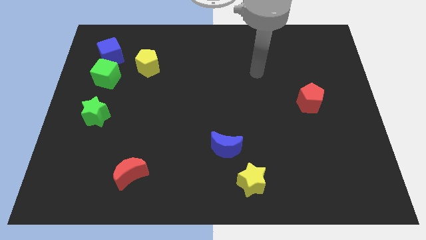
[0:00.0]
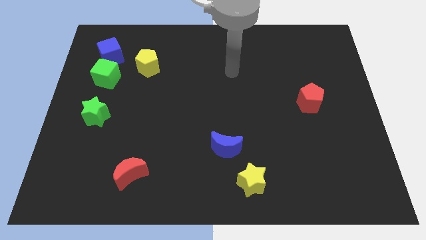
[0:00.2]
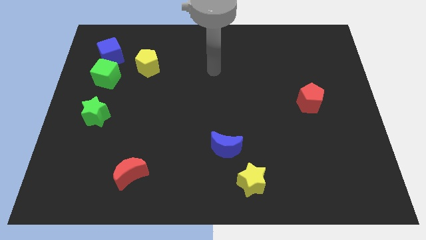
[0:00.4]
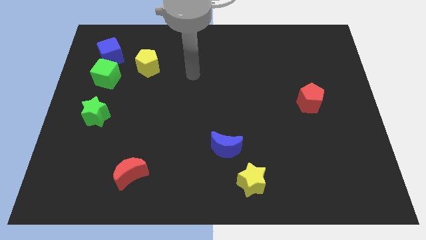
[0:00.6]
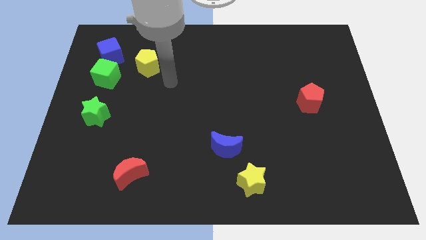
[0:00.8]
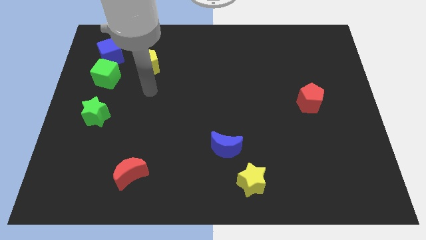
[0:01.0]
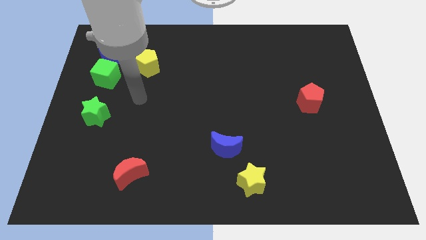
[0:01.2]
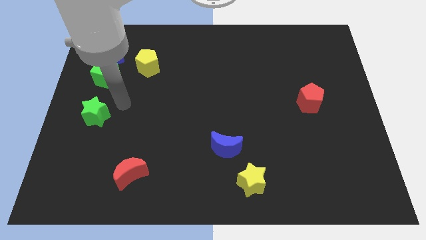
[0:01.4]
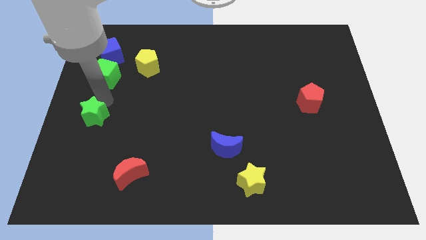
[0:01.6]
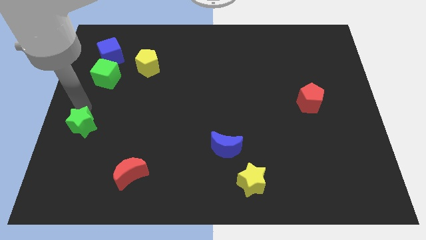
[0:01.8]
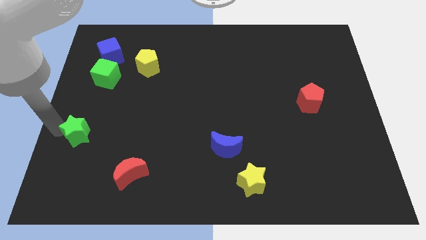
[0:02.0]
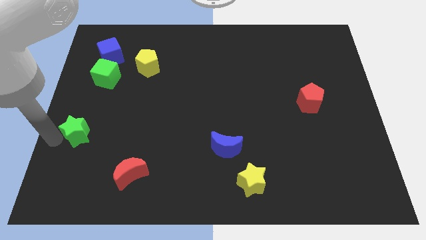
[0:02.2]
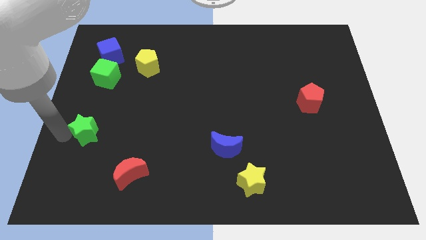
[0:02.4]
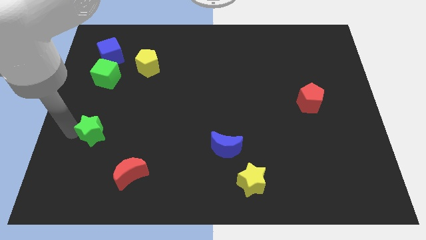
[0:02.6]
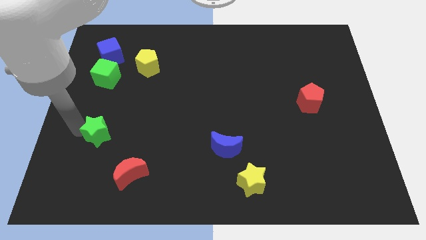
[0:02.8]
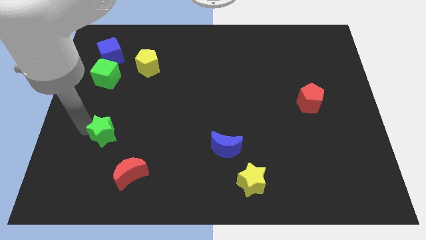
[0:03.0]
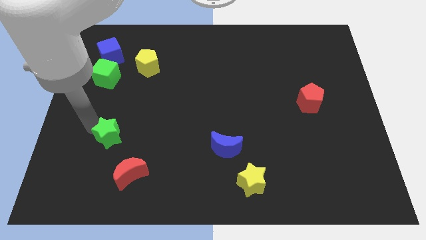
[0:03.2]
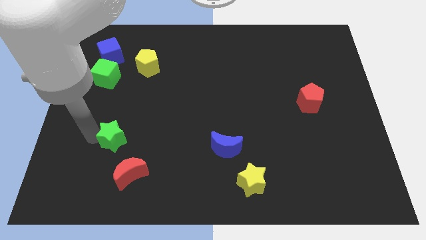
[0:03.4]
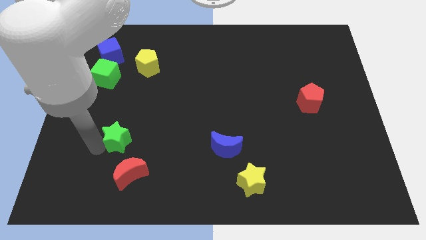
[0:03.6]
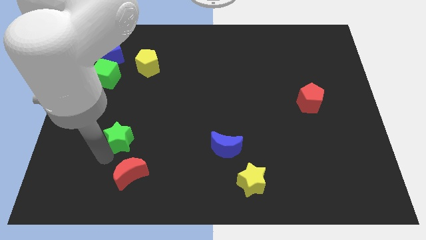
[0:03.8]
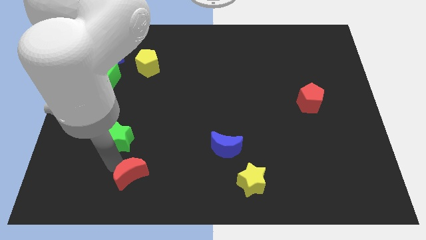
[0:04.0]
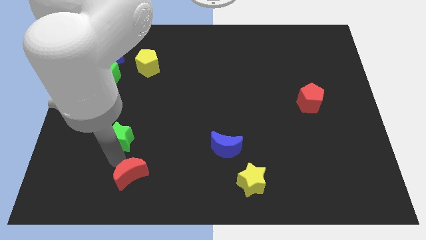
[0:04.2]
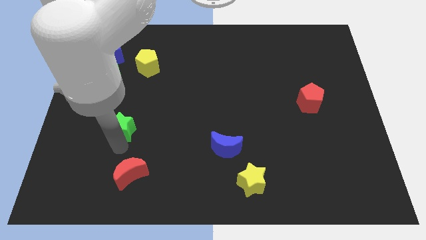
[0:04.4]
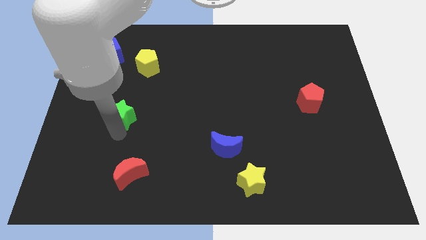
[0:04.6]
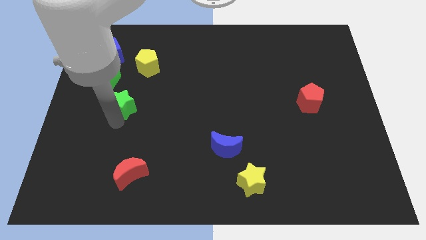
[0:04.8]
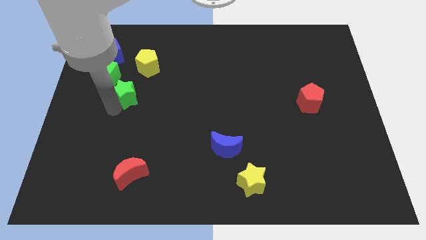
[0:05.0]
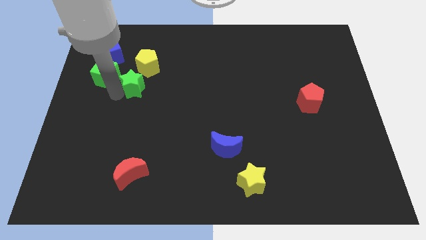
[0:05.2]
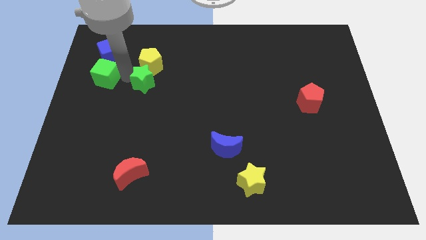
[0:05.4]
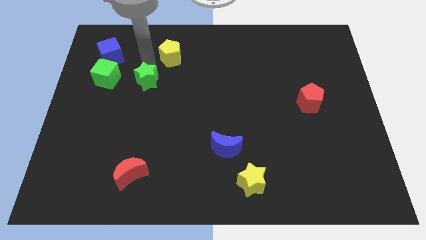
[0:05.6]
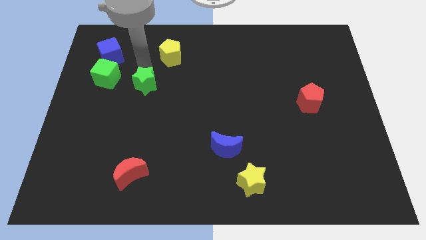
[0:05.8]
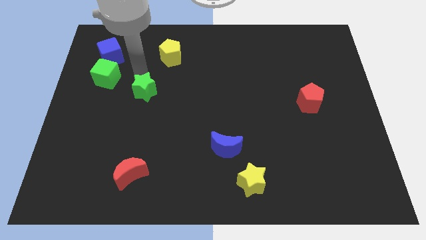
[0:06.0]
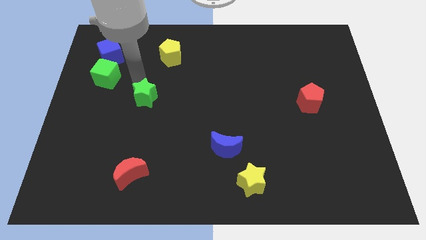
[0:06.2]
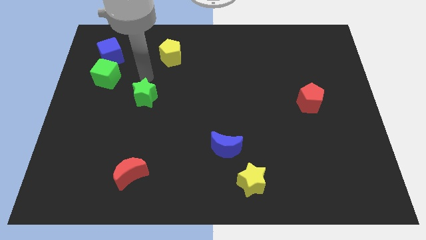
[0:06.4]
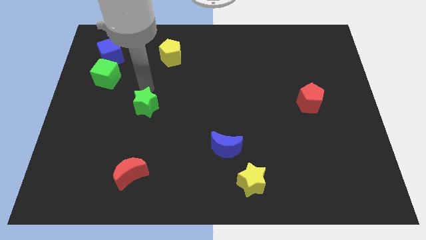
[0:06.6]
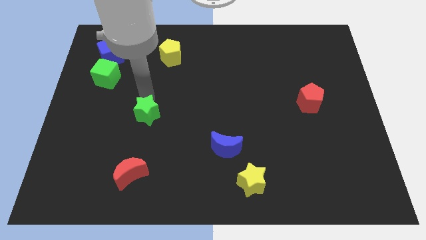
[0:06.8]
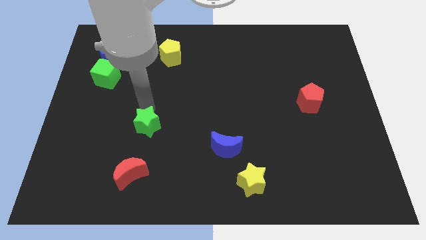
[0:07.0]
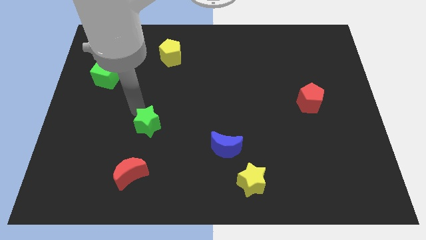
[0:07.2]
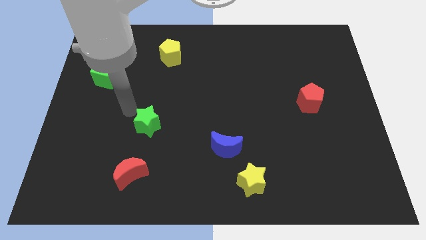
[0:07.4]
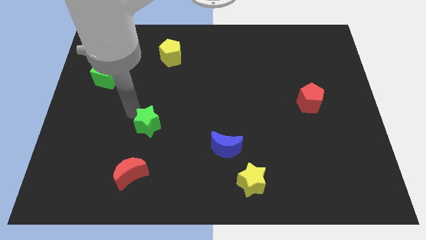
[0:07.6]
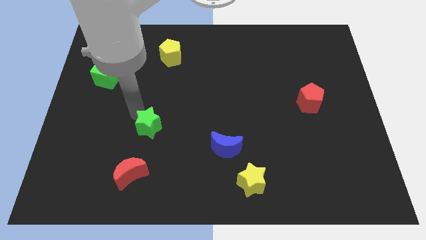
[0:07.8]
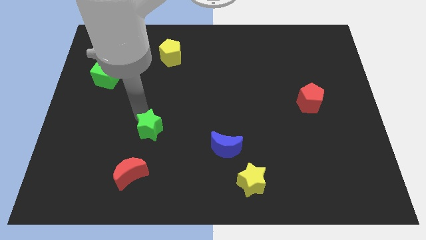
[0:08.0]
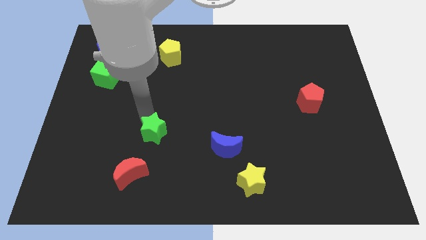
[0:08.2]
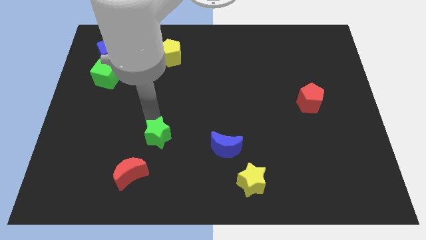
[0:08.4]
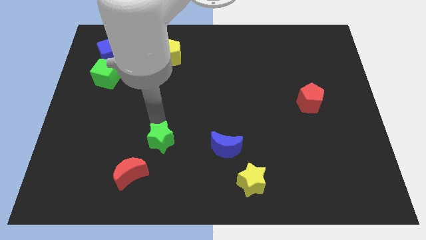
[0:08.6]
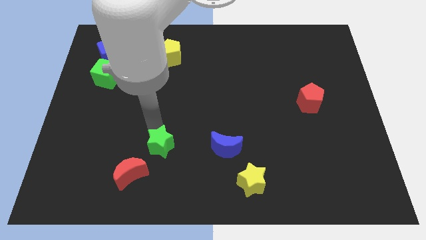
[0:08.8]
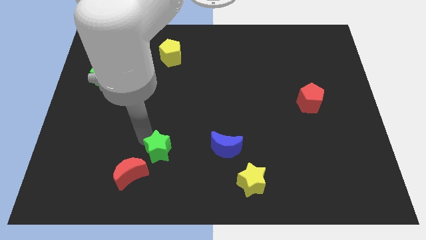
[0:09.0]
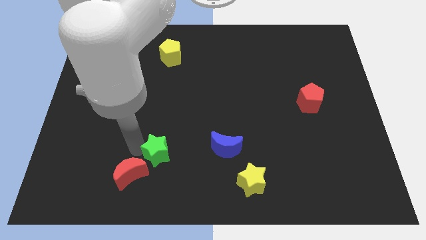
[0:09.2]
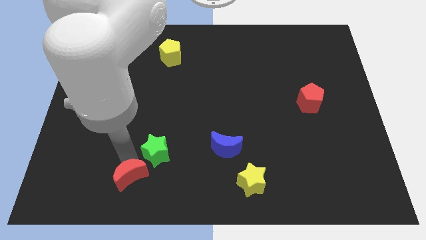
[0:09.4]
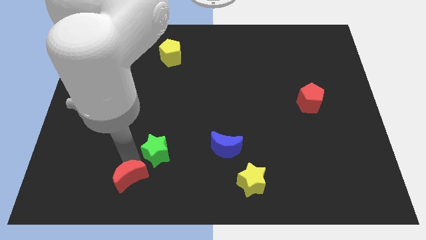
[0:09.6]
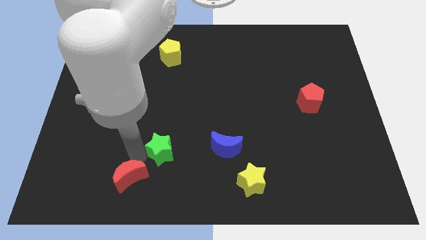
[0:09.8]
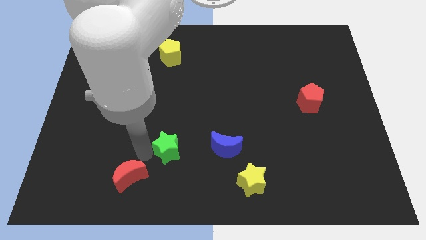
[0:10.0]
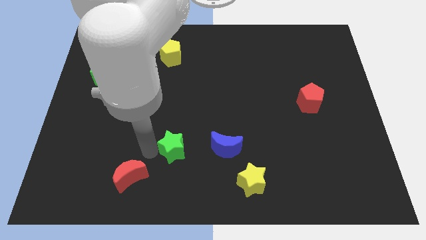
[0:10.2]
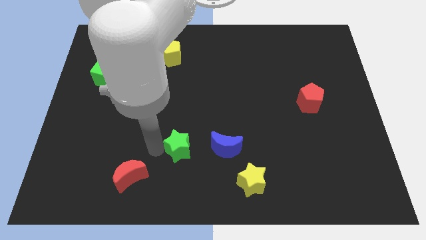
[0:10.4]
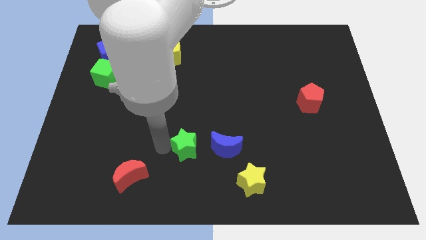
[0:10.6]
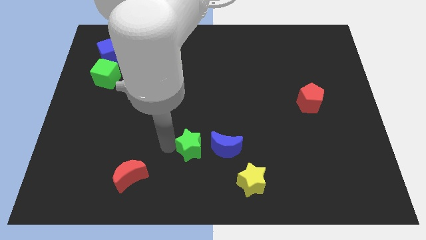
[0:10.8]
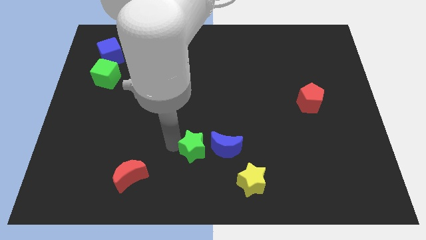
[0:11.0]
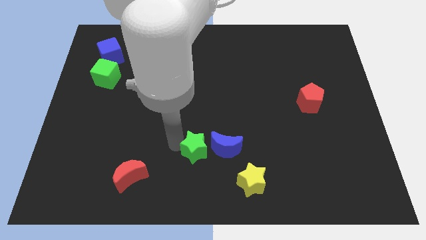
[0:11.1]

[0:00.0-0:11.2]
slide the green star next to the blue moon

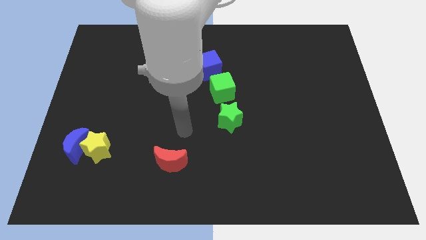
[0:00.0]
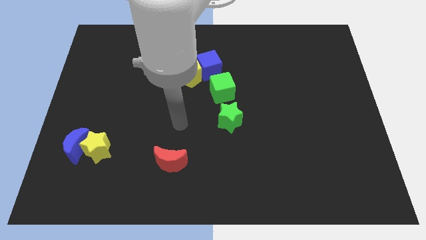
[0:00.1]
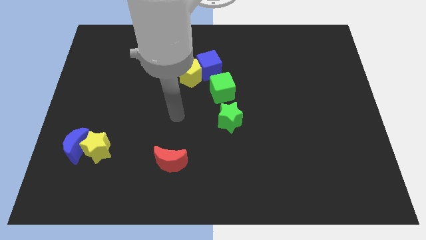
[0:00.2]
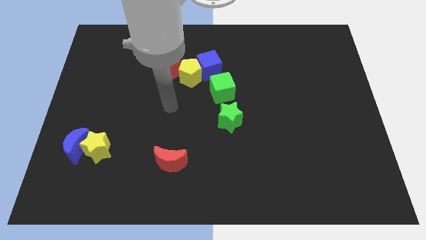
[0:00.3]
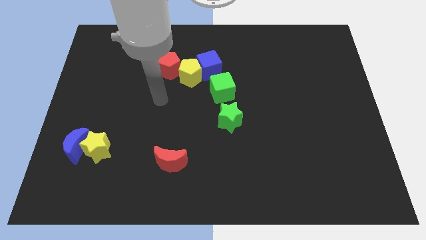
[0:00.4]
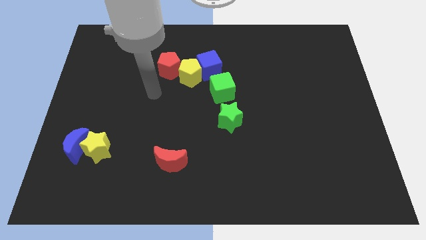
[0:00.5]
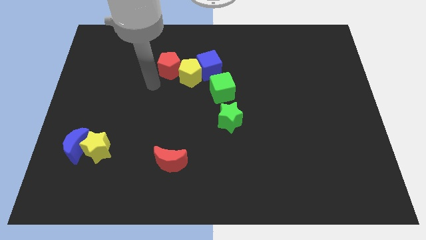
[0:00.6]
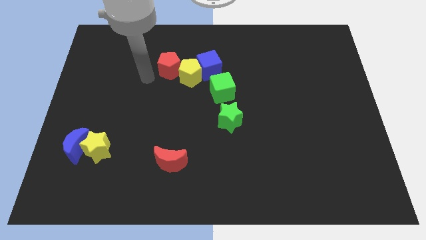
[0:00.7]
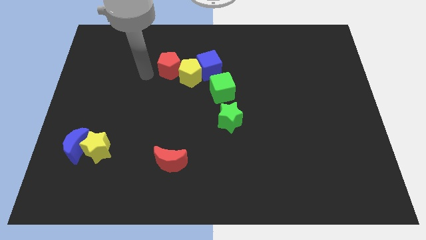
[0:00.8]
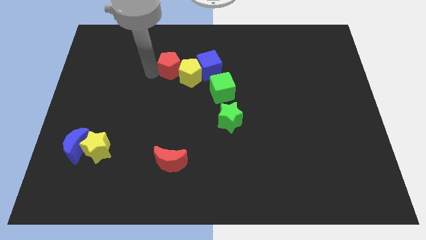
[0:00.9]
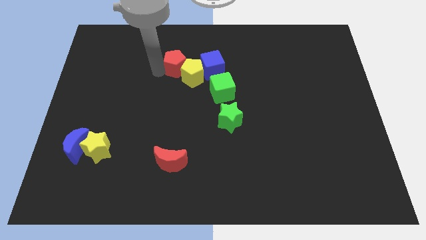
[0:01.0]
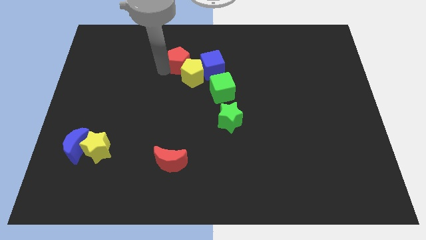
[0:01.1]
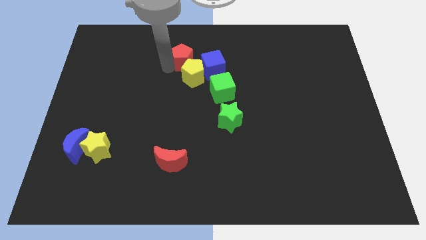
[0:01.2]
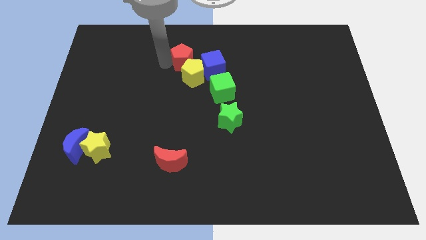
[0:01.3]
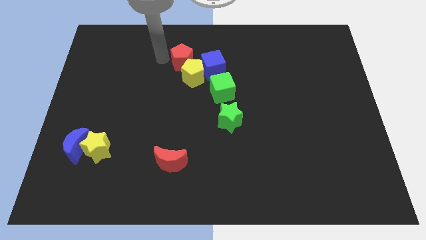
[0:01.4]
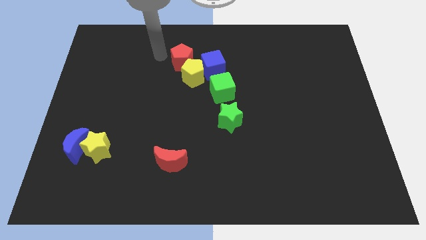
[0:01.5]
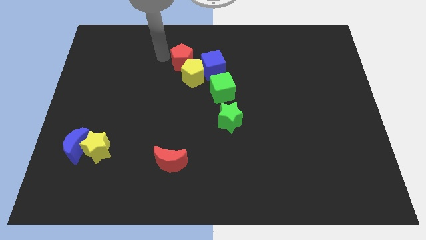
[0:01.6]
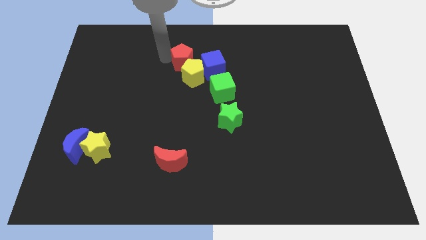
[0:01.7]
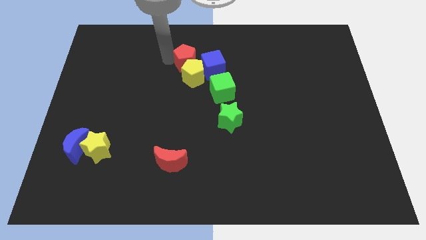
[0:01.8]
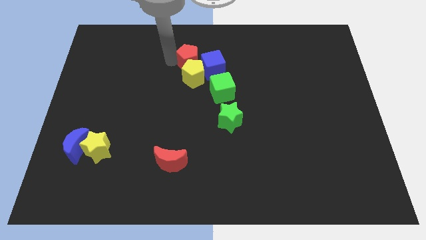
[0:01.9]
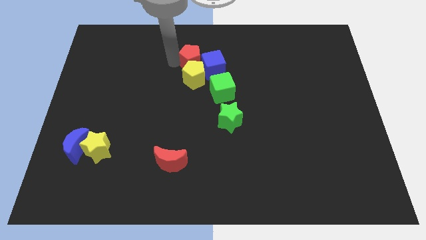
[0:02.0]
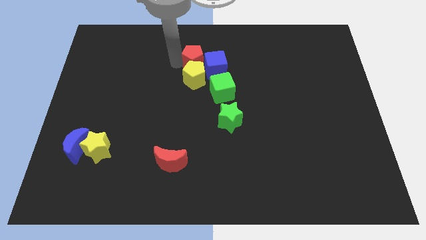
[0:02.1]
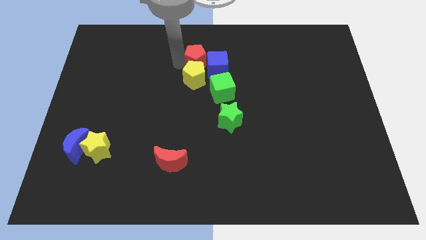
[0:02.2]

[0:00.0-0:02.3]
move the red pentagon close to the blue cube
